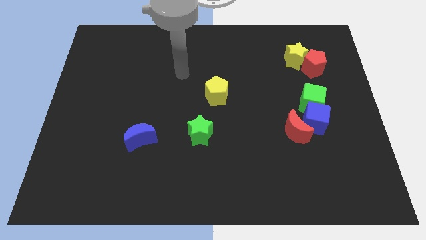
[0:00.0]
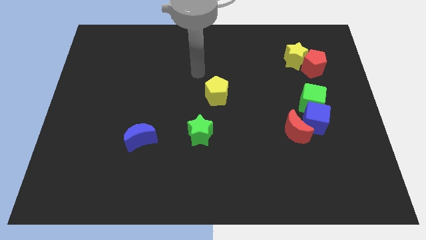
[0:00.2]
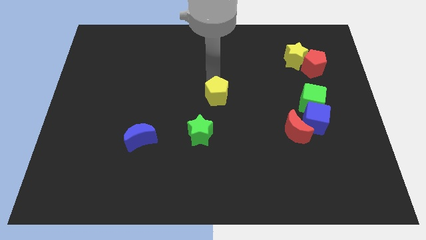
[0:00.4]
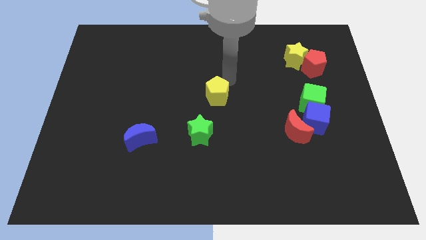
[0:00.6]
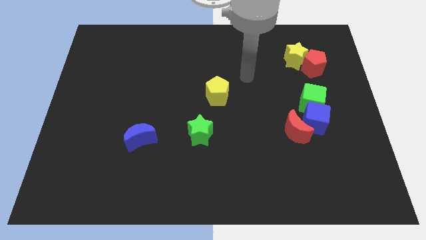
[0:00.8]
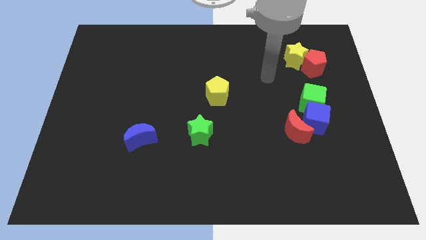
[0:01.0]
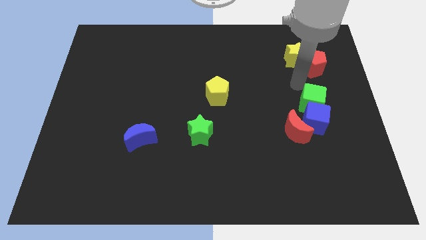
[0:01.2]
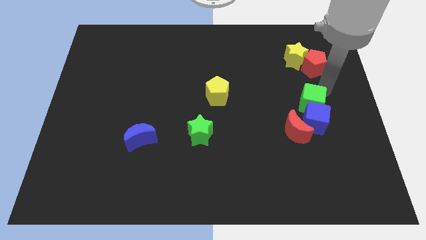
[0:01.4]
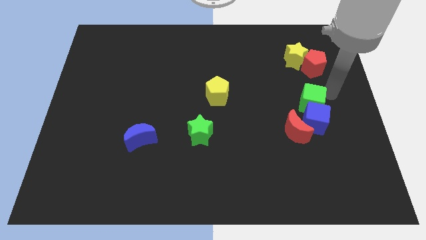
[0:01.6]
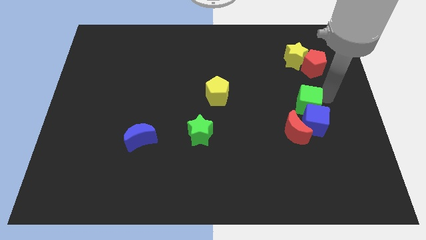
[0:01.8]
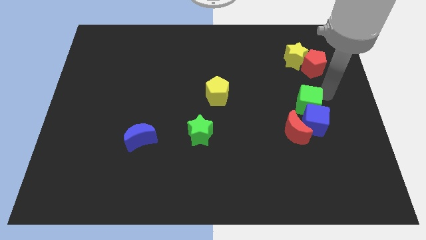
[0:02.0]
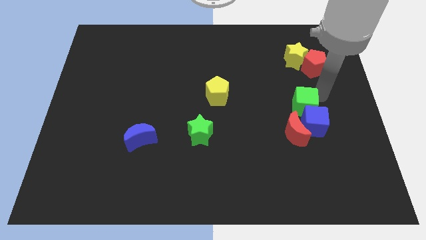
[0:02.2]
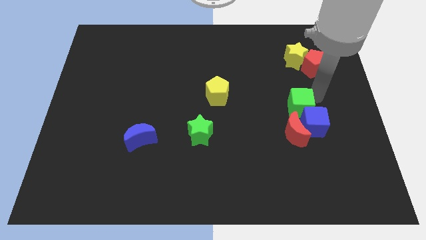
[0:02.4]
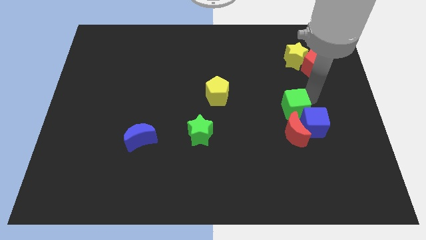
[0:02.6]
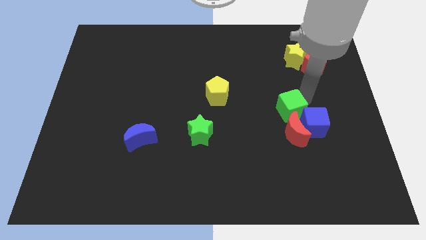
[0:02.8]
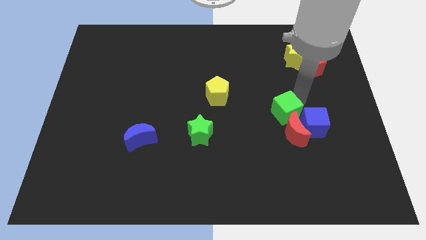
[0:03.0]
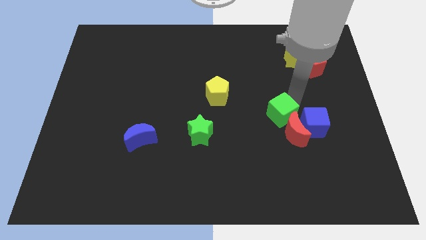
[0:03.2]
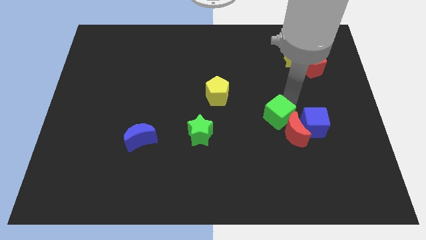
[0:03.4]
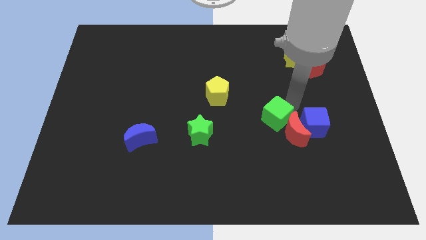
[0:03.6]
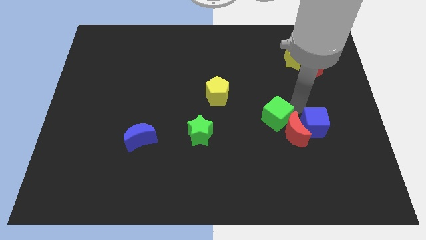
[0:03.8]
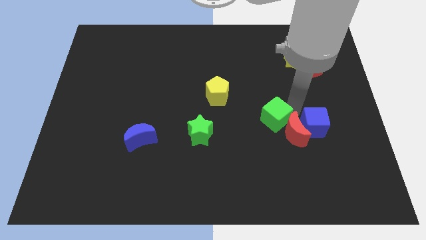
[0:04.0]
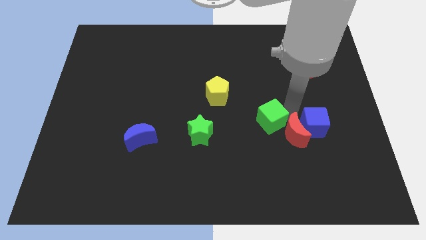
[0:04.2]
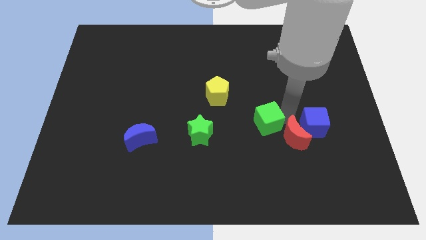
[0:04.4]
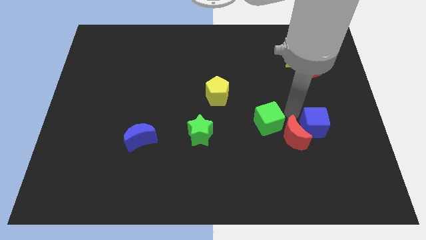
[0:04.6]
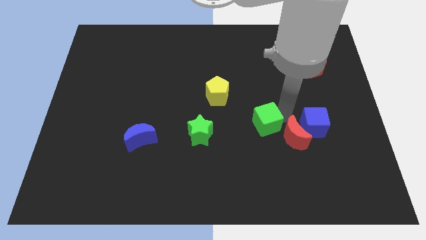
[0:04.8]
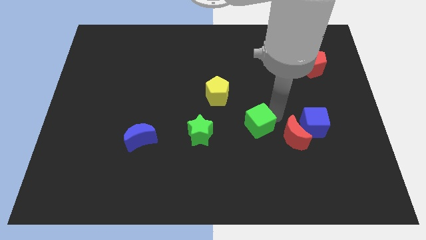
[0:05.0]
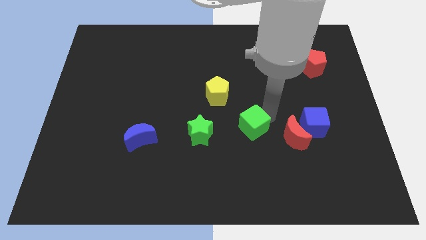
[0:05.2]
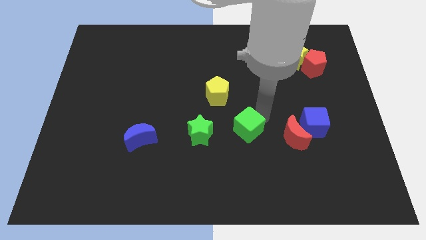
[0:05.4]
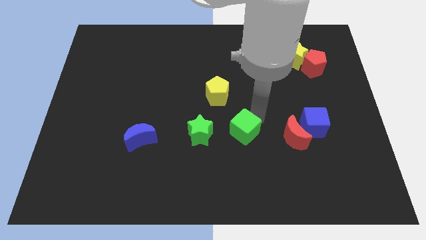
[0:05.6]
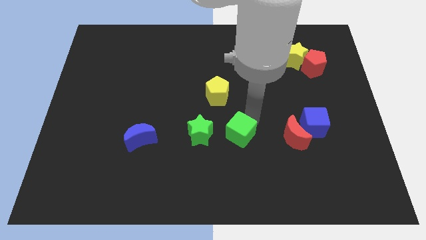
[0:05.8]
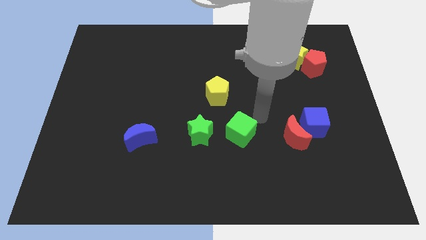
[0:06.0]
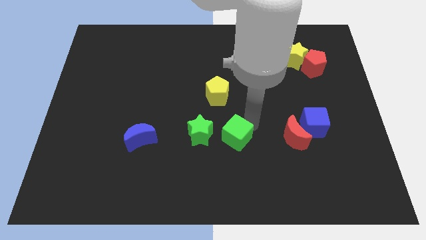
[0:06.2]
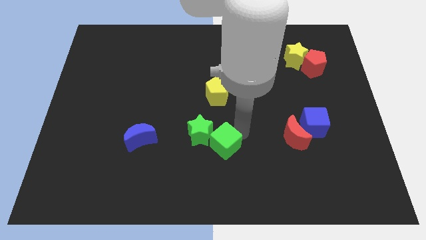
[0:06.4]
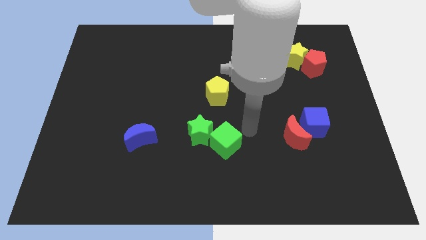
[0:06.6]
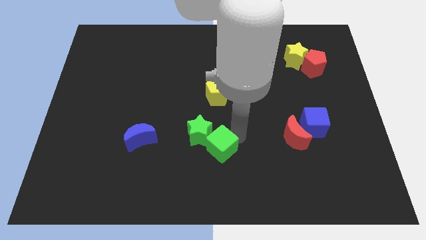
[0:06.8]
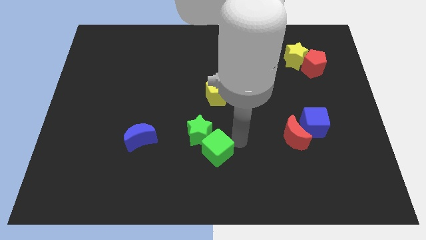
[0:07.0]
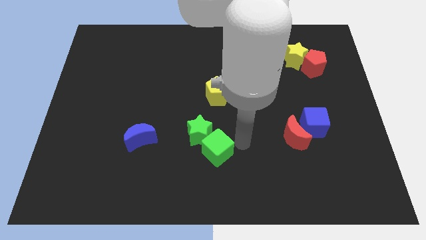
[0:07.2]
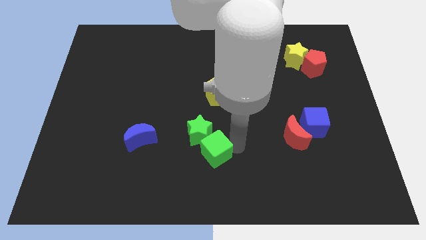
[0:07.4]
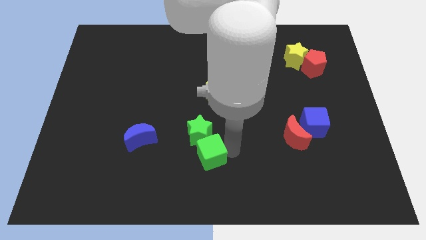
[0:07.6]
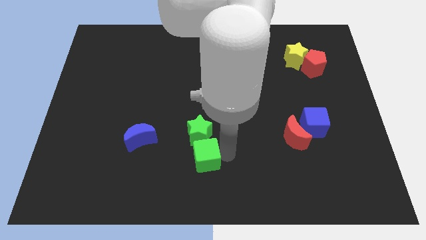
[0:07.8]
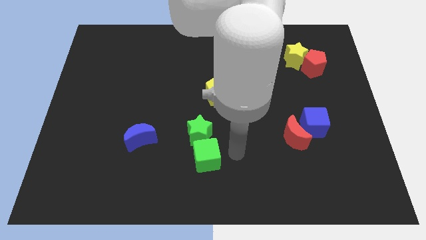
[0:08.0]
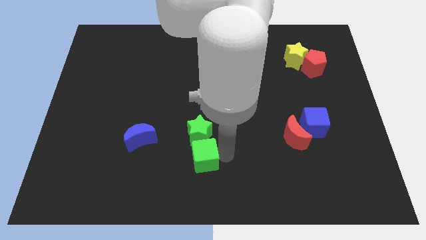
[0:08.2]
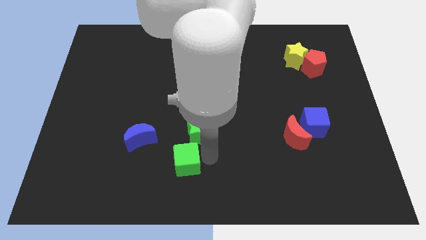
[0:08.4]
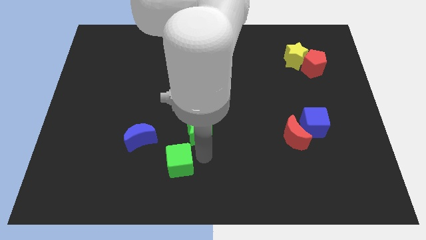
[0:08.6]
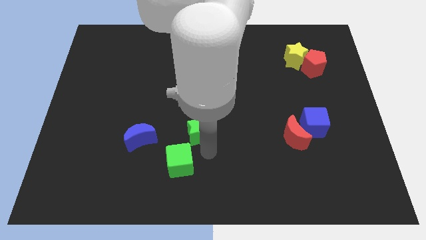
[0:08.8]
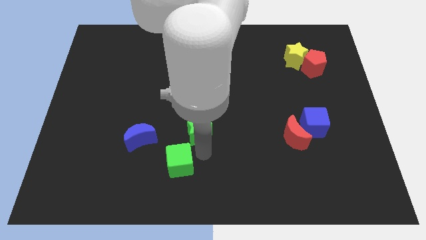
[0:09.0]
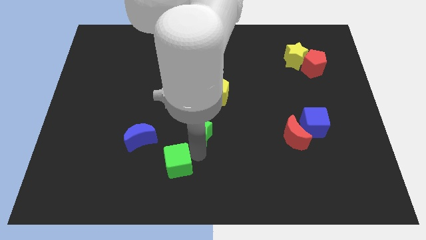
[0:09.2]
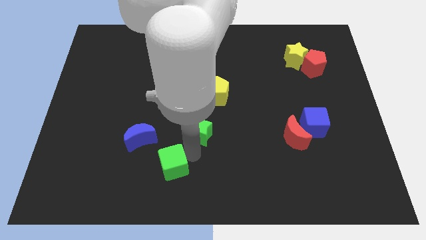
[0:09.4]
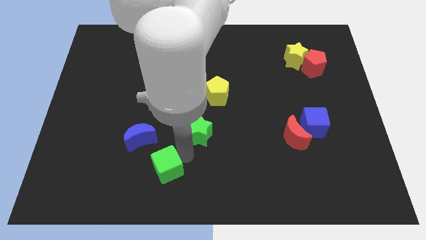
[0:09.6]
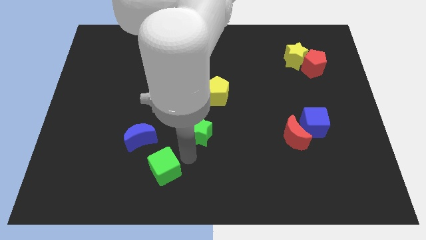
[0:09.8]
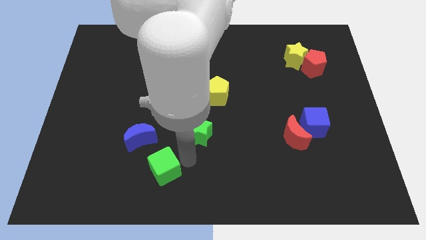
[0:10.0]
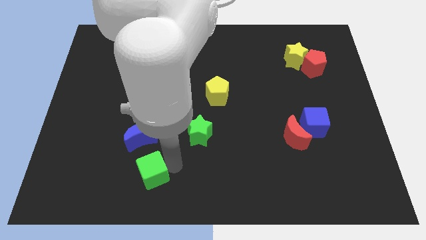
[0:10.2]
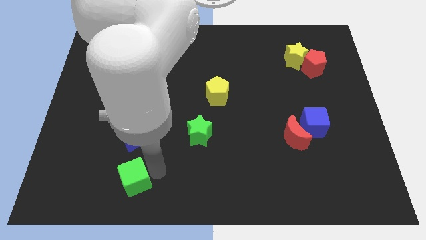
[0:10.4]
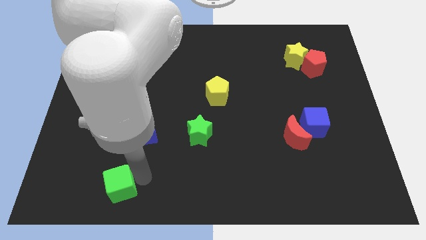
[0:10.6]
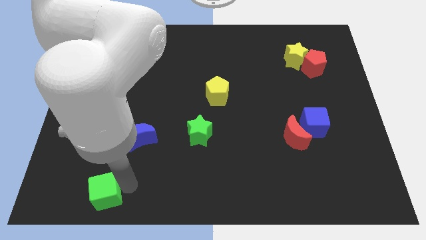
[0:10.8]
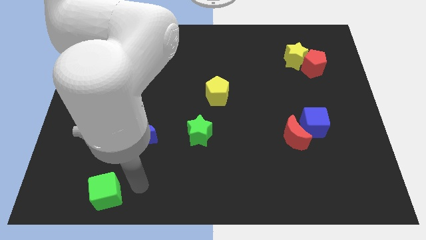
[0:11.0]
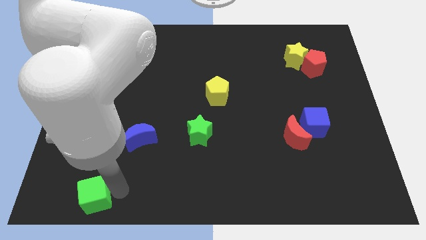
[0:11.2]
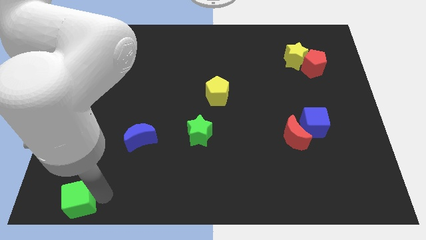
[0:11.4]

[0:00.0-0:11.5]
move the green cube to the bottom left corner
